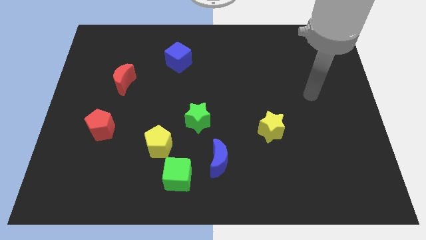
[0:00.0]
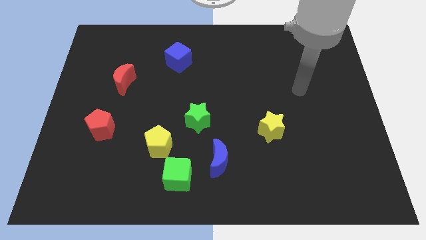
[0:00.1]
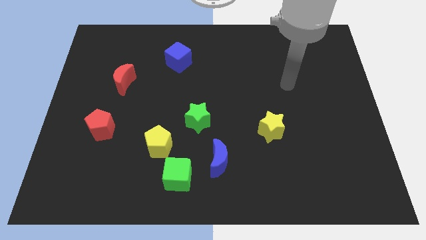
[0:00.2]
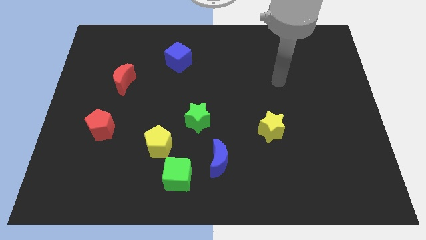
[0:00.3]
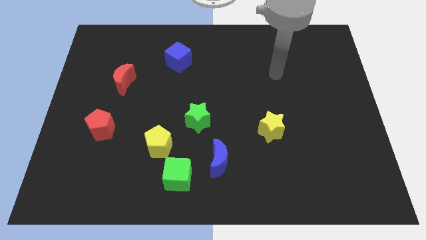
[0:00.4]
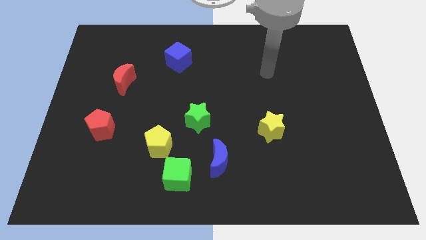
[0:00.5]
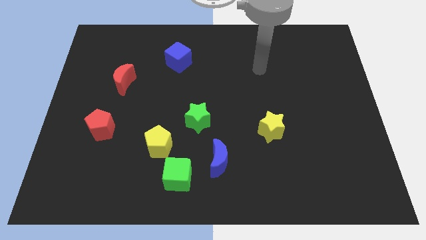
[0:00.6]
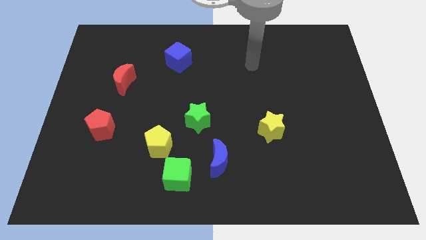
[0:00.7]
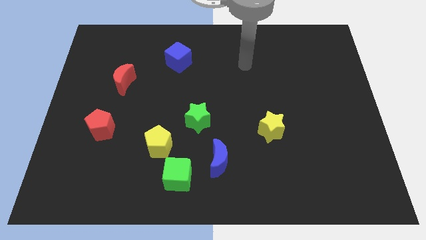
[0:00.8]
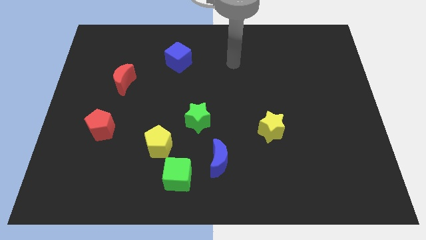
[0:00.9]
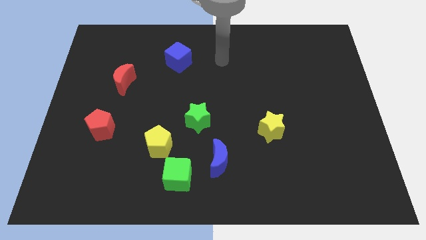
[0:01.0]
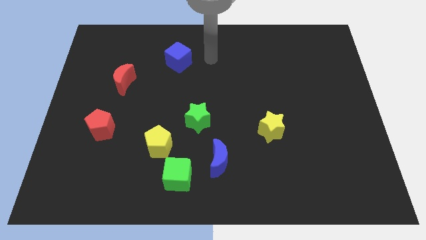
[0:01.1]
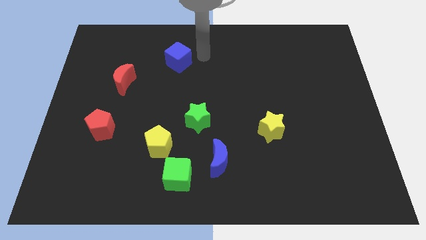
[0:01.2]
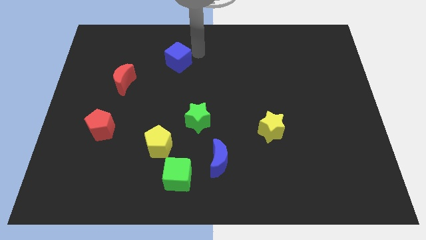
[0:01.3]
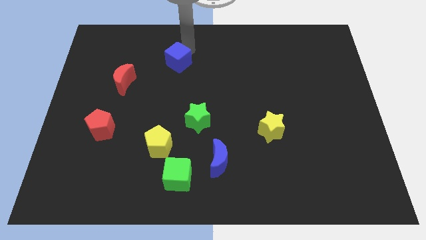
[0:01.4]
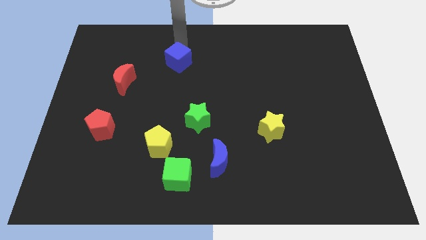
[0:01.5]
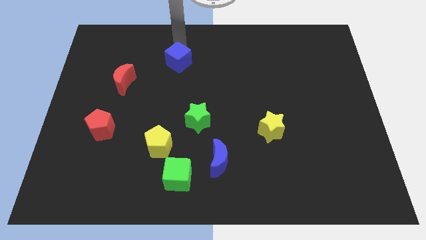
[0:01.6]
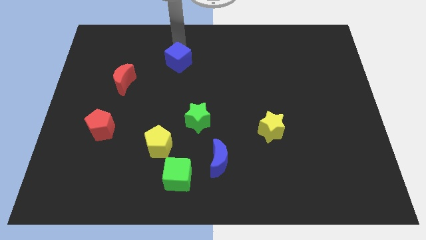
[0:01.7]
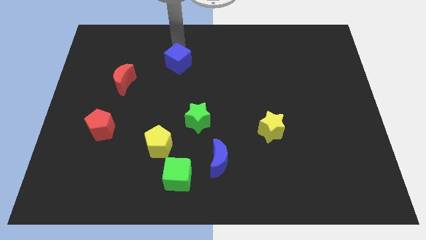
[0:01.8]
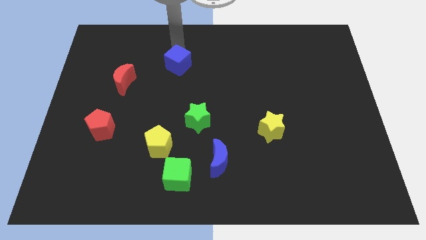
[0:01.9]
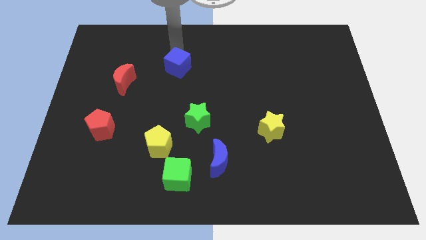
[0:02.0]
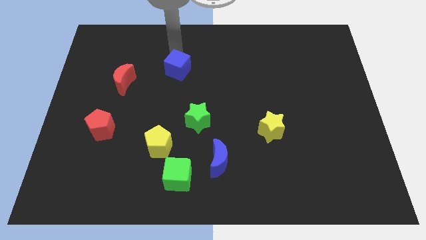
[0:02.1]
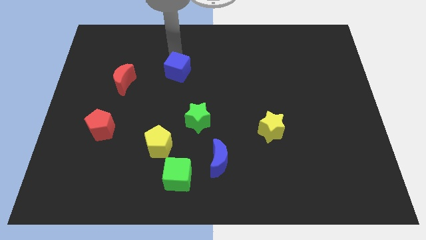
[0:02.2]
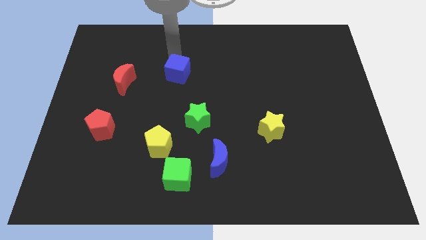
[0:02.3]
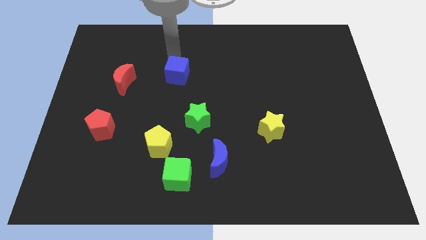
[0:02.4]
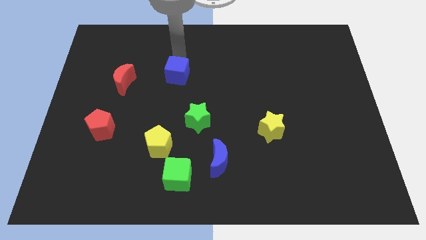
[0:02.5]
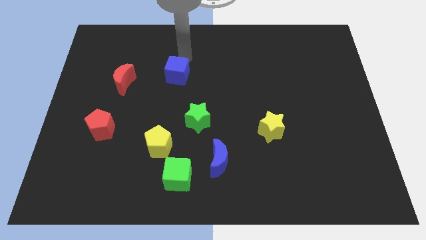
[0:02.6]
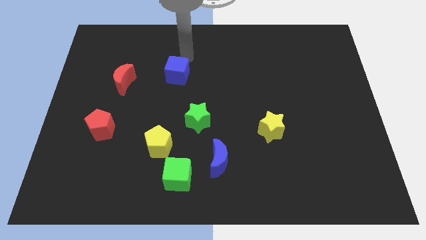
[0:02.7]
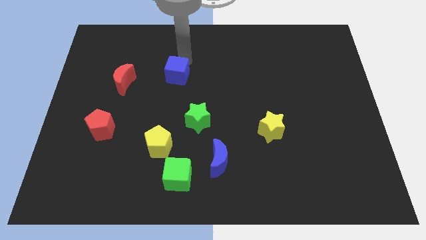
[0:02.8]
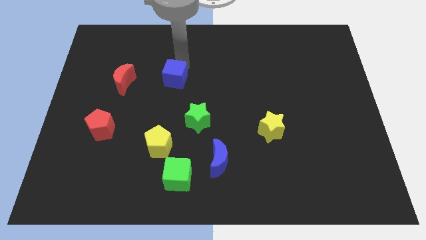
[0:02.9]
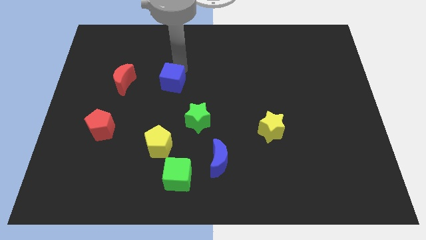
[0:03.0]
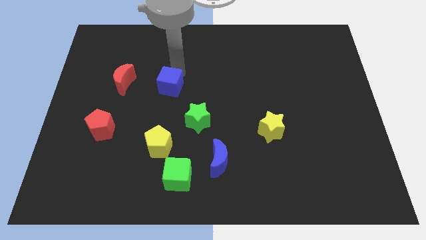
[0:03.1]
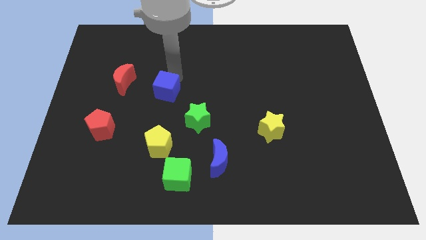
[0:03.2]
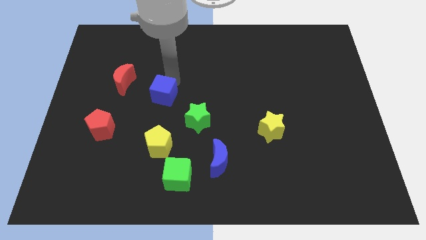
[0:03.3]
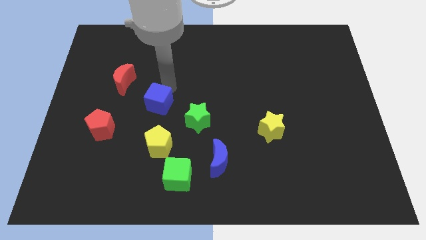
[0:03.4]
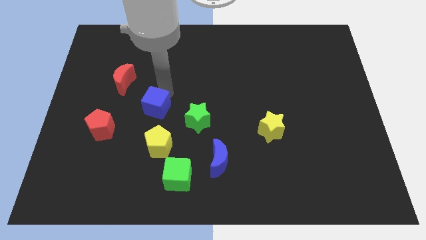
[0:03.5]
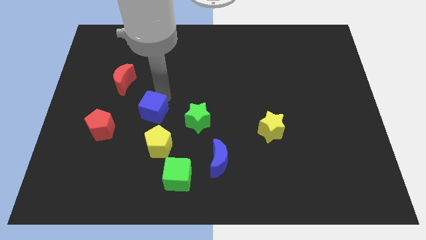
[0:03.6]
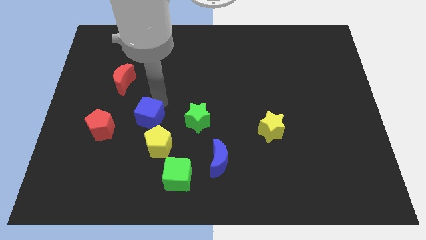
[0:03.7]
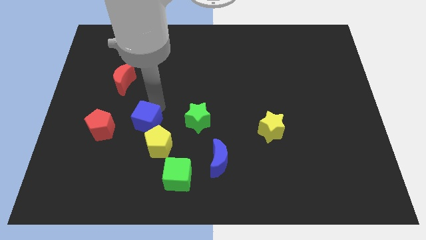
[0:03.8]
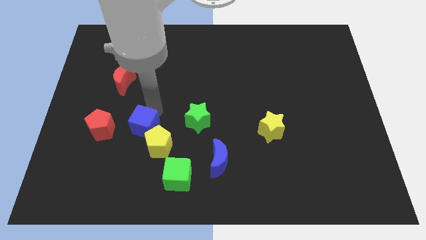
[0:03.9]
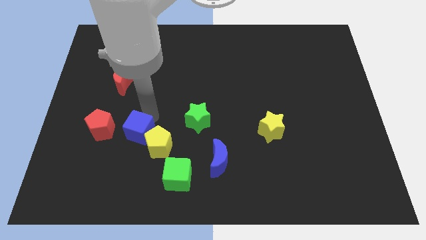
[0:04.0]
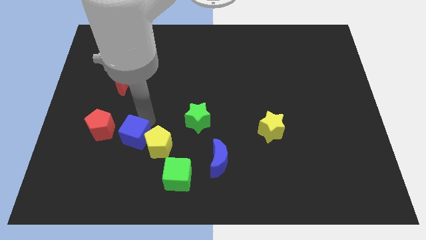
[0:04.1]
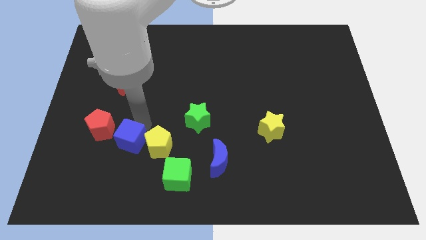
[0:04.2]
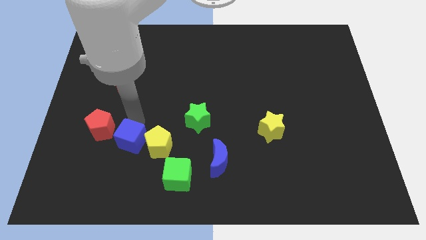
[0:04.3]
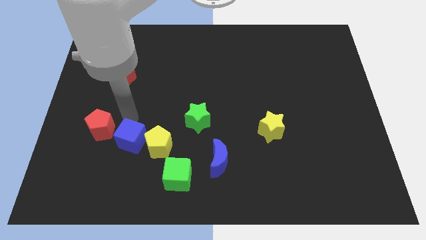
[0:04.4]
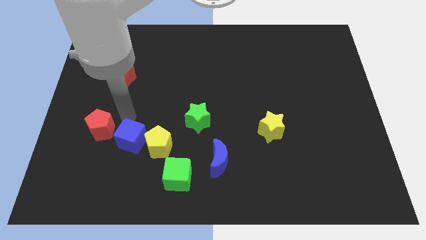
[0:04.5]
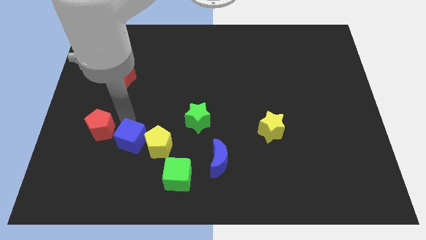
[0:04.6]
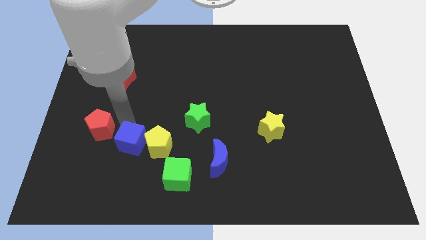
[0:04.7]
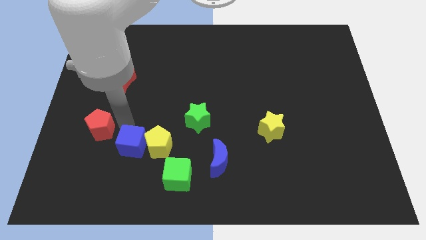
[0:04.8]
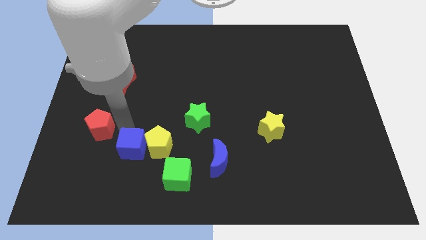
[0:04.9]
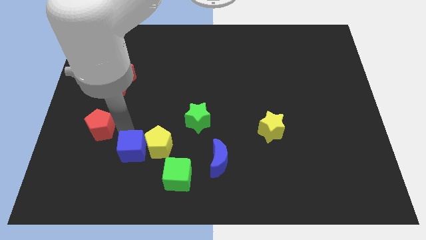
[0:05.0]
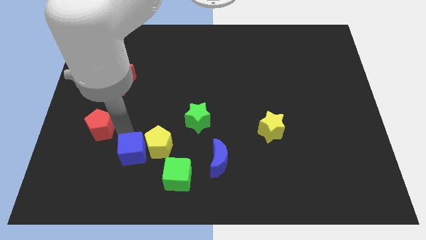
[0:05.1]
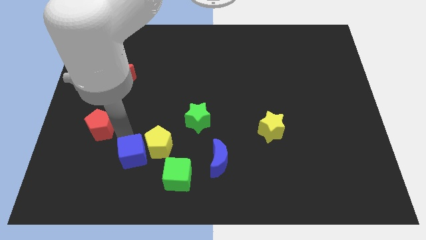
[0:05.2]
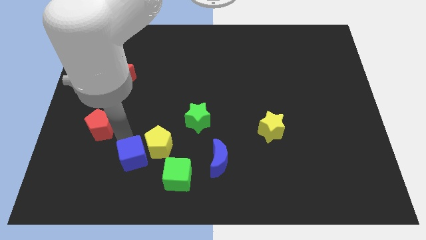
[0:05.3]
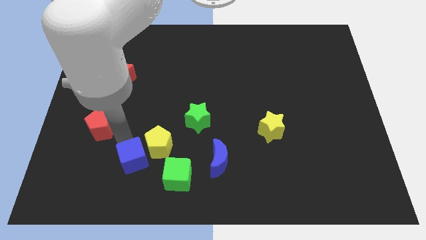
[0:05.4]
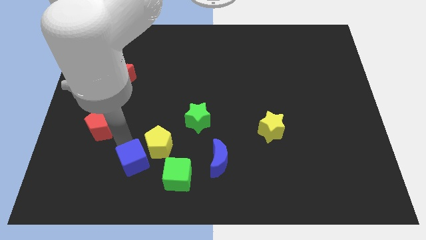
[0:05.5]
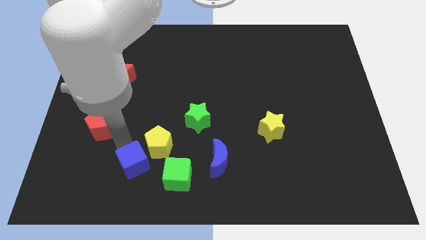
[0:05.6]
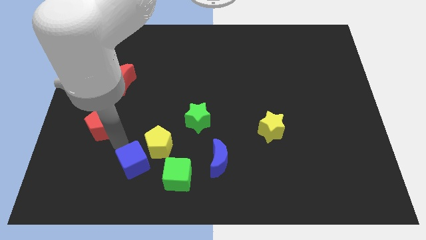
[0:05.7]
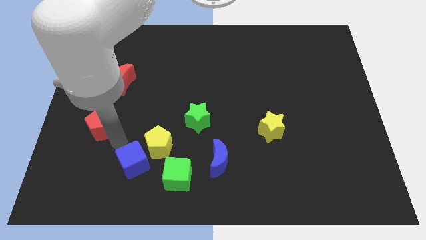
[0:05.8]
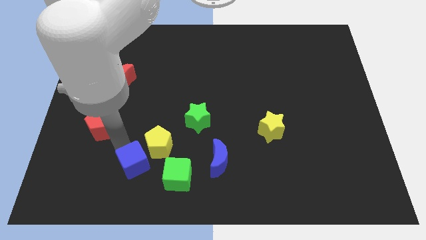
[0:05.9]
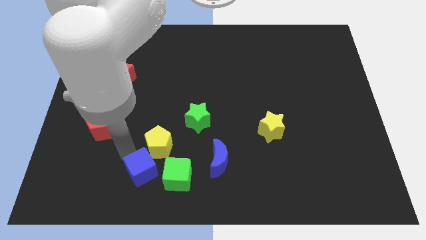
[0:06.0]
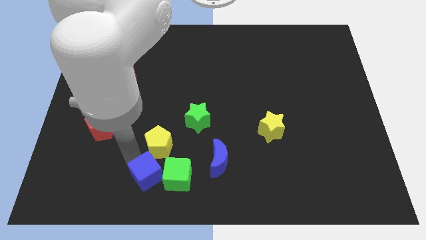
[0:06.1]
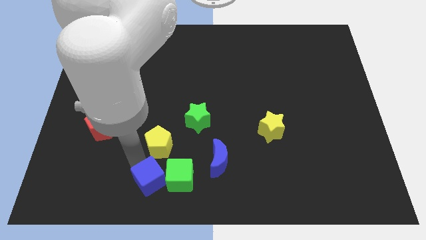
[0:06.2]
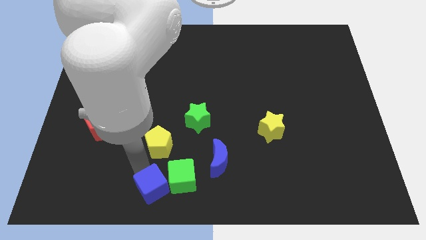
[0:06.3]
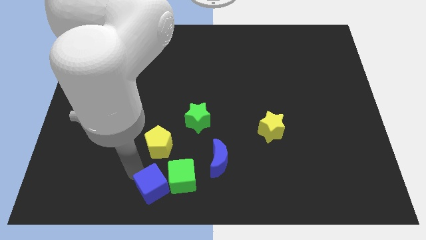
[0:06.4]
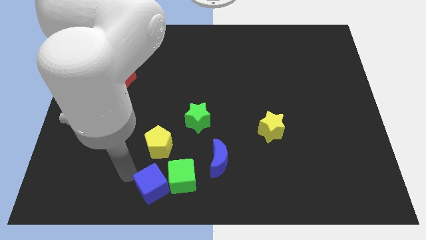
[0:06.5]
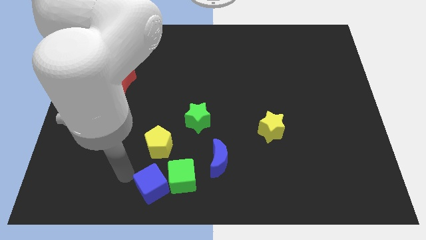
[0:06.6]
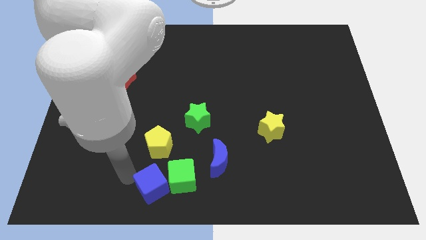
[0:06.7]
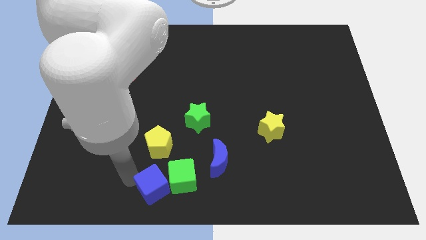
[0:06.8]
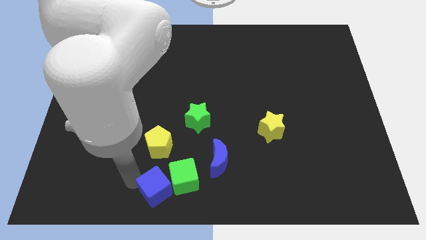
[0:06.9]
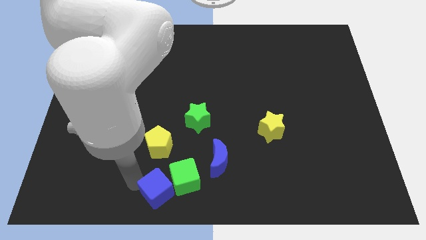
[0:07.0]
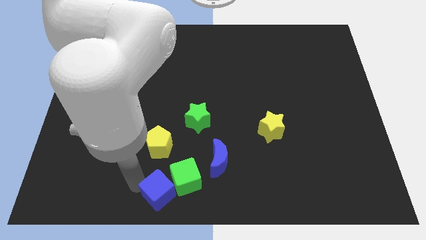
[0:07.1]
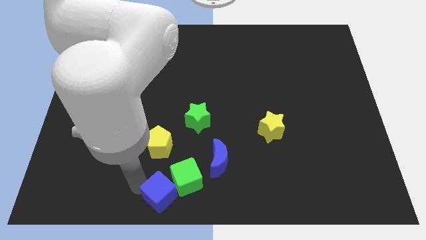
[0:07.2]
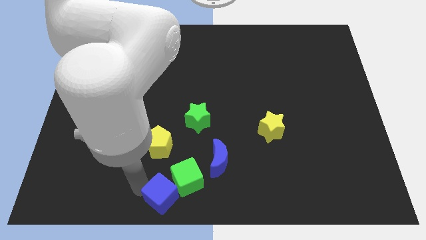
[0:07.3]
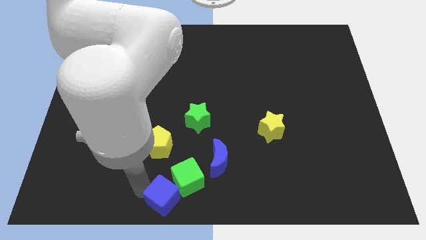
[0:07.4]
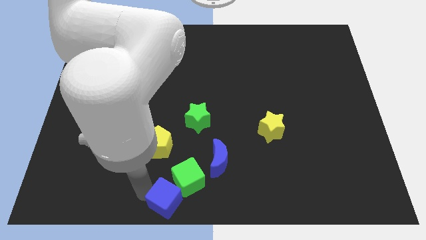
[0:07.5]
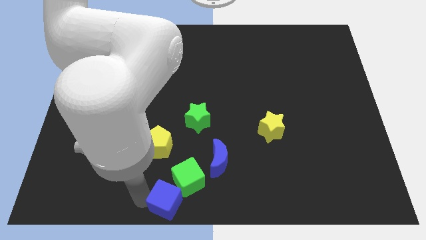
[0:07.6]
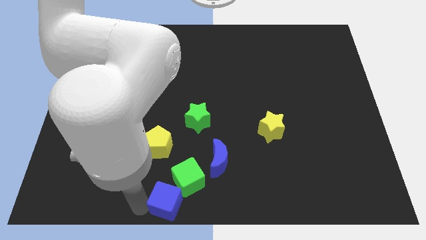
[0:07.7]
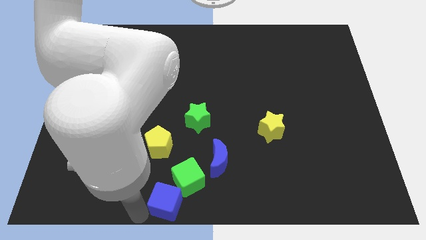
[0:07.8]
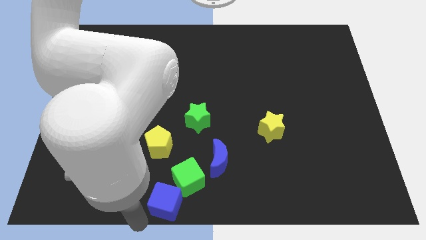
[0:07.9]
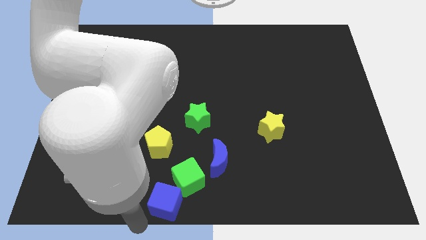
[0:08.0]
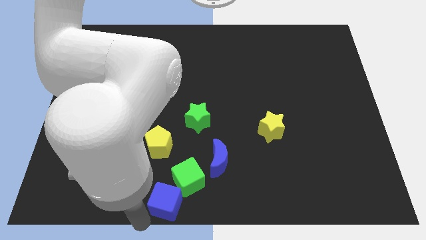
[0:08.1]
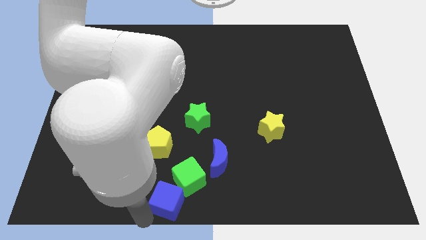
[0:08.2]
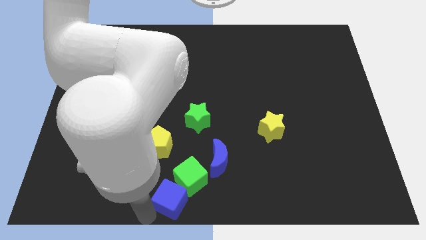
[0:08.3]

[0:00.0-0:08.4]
push the blue cube diagonally down and to the left of the blue moon

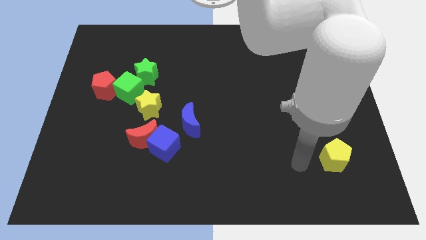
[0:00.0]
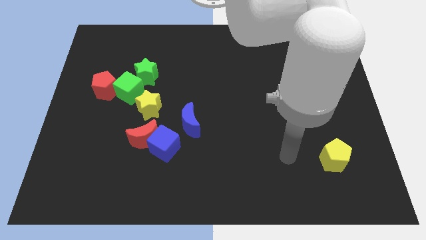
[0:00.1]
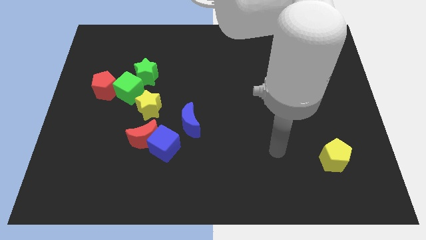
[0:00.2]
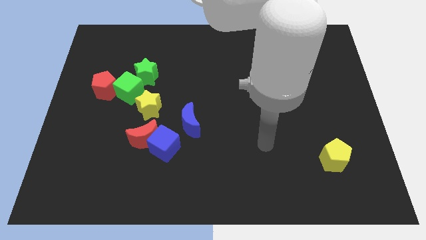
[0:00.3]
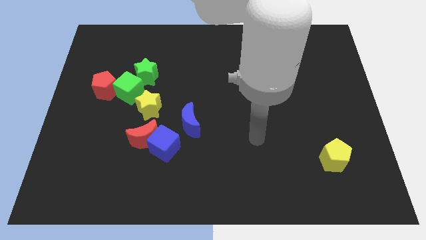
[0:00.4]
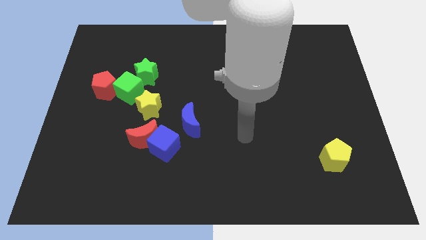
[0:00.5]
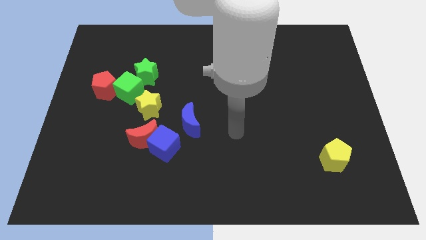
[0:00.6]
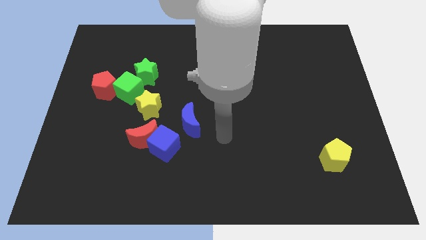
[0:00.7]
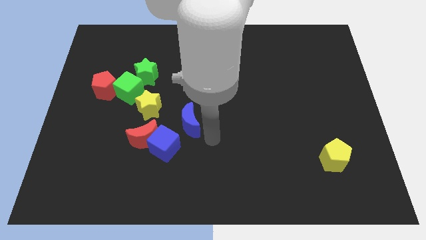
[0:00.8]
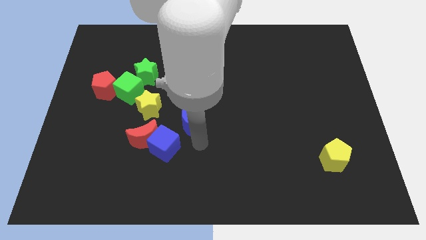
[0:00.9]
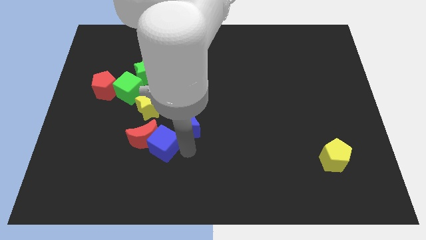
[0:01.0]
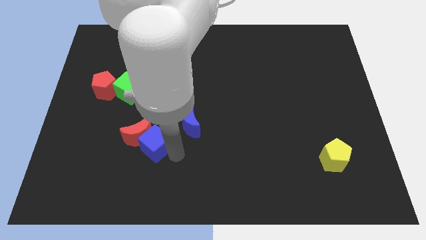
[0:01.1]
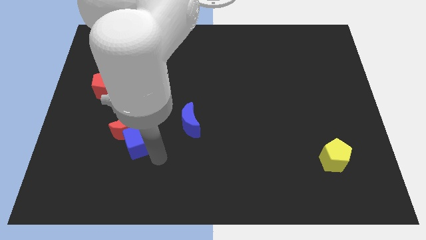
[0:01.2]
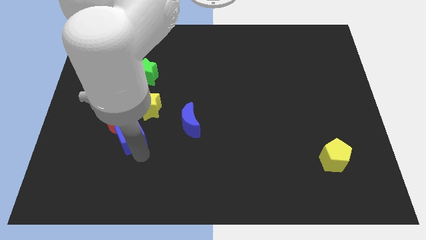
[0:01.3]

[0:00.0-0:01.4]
slide the red moon to the bottom right side of the red pentagon
